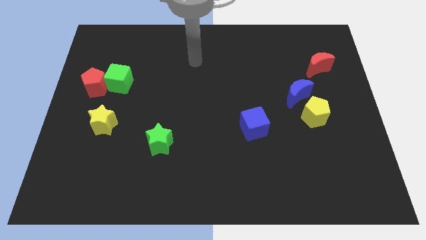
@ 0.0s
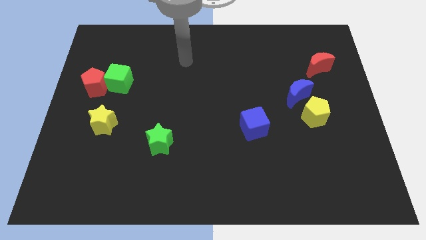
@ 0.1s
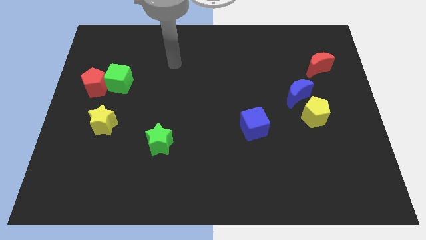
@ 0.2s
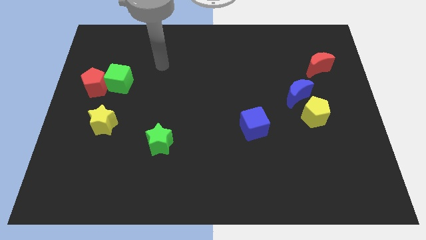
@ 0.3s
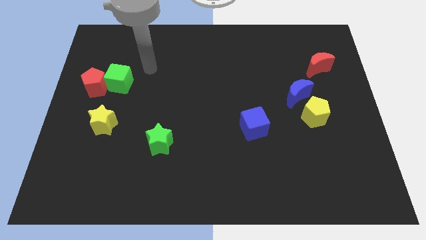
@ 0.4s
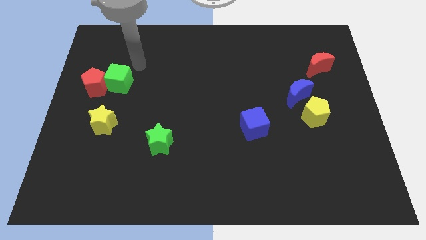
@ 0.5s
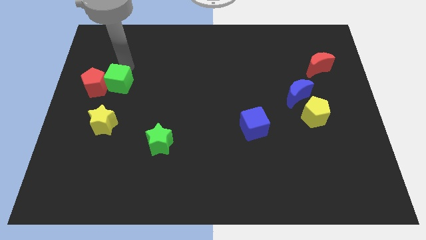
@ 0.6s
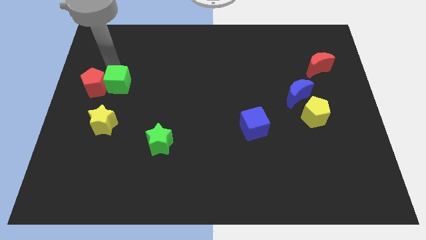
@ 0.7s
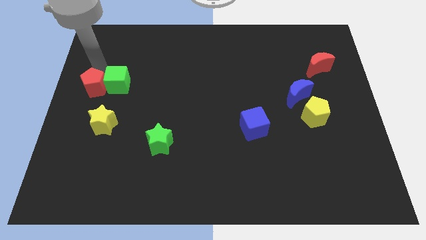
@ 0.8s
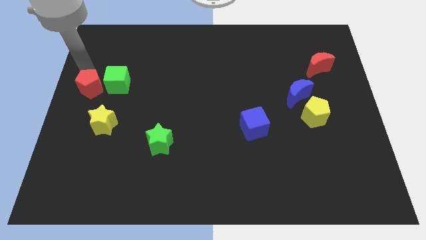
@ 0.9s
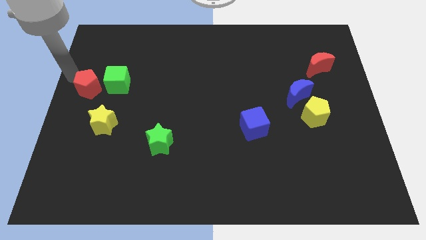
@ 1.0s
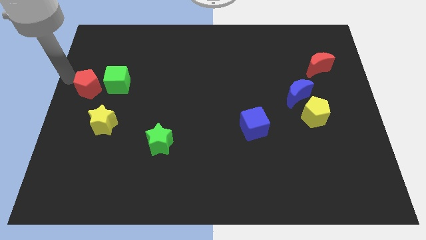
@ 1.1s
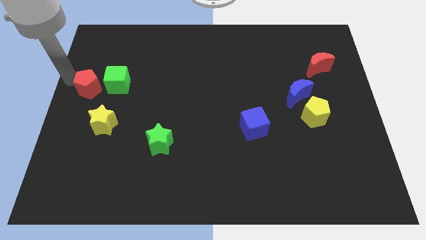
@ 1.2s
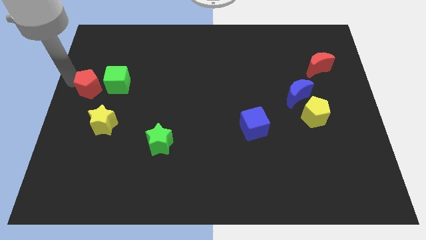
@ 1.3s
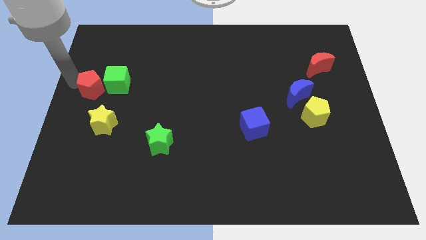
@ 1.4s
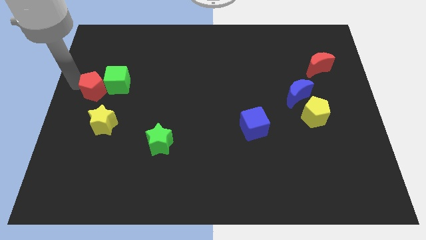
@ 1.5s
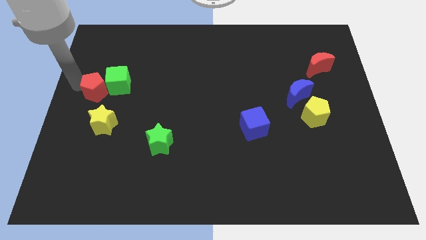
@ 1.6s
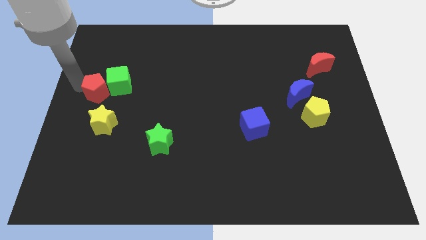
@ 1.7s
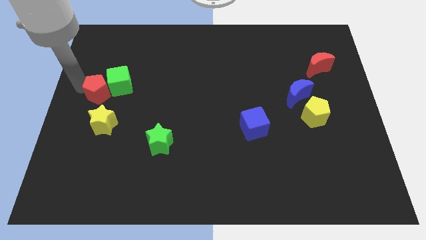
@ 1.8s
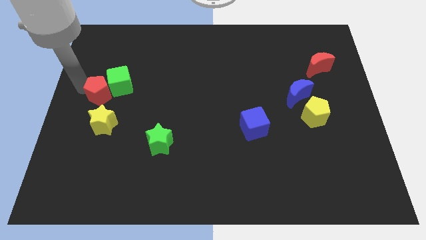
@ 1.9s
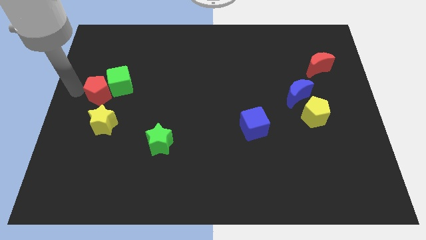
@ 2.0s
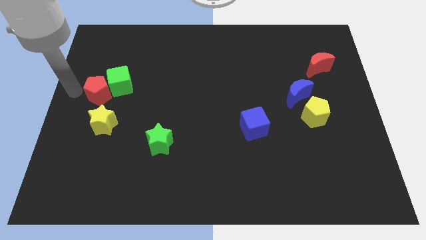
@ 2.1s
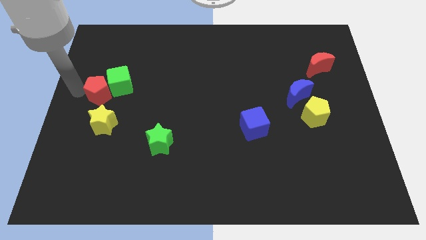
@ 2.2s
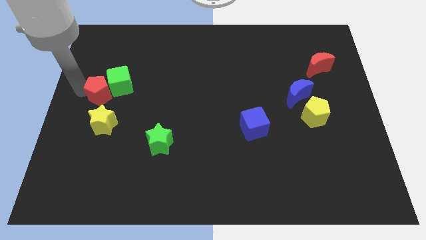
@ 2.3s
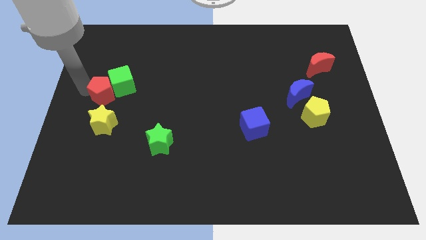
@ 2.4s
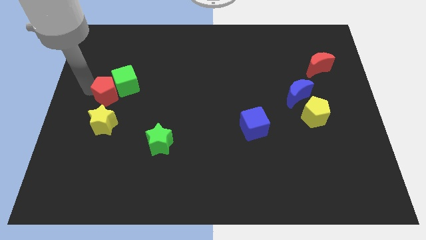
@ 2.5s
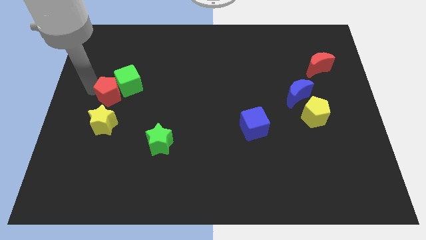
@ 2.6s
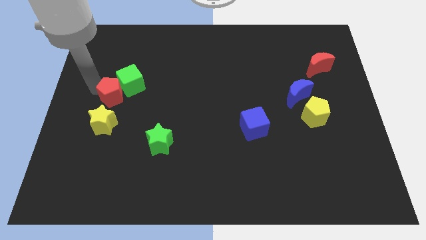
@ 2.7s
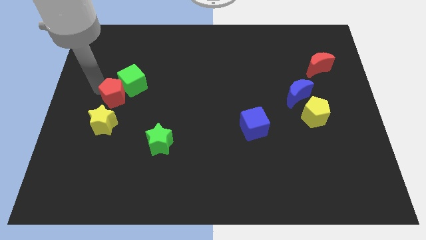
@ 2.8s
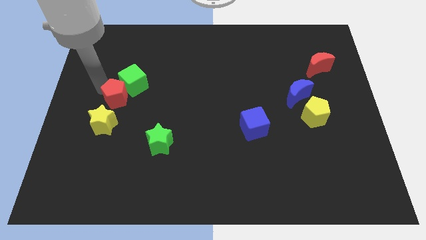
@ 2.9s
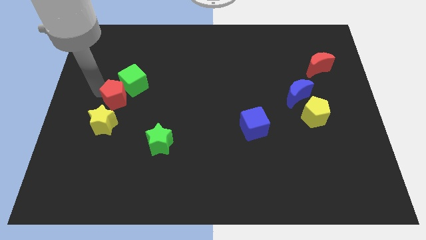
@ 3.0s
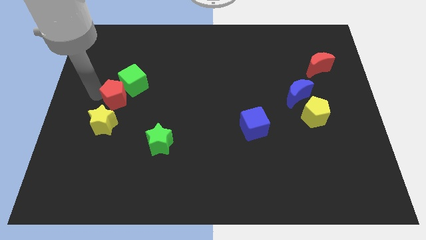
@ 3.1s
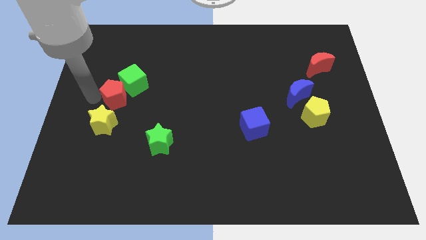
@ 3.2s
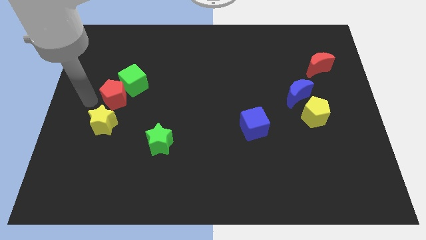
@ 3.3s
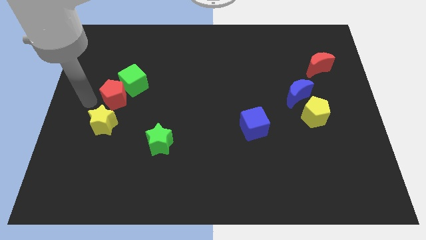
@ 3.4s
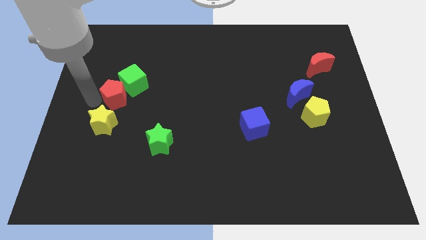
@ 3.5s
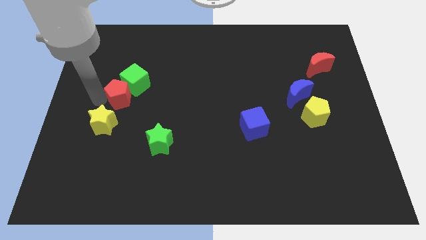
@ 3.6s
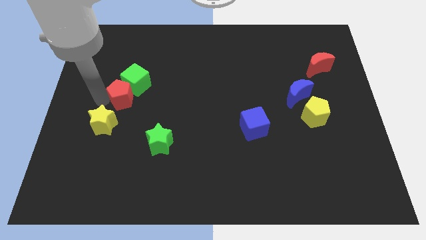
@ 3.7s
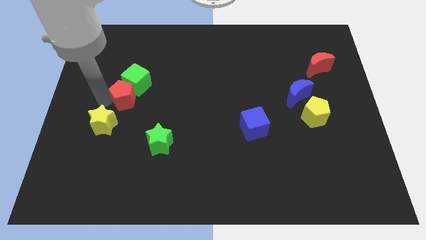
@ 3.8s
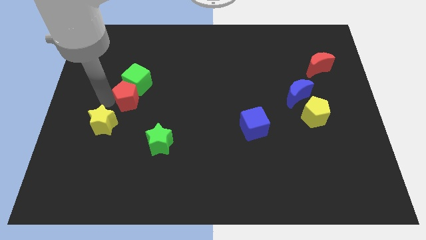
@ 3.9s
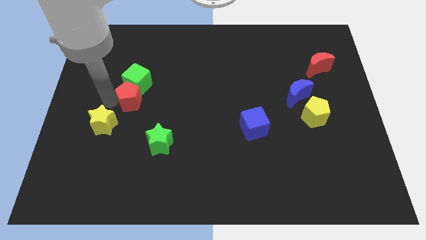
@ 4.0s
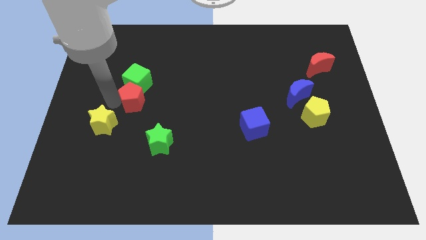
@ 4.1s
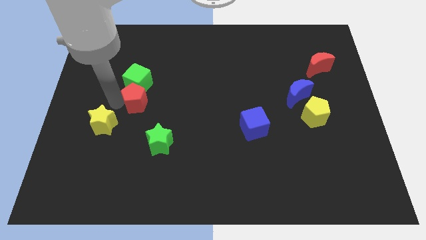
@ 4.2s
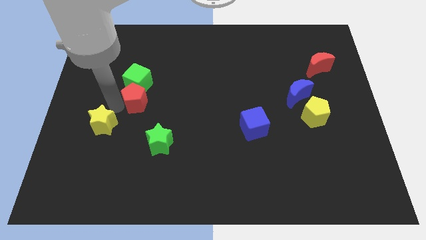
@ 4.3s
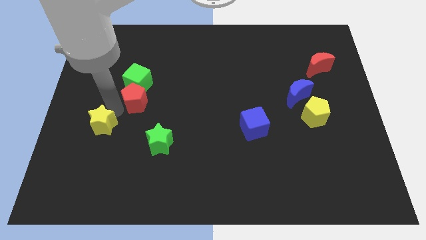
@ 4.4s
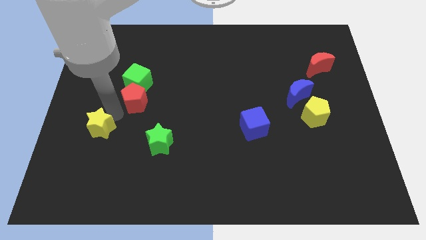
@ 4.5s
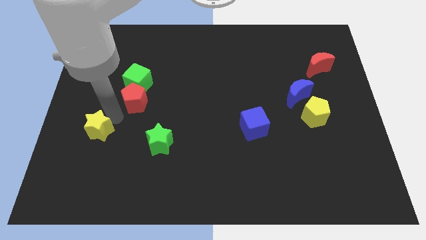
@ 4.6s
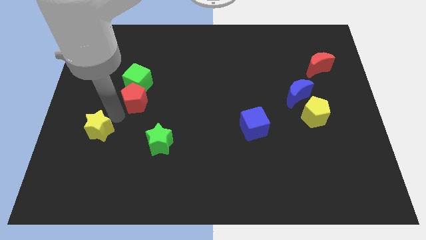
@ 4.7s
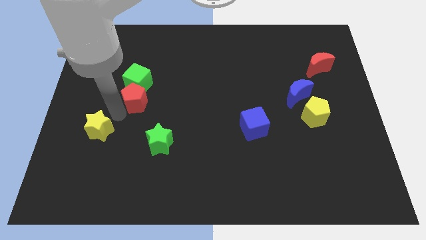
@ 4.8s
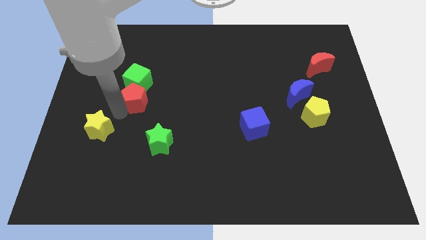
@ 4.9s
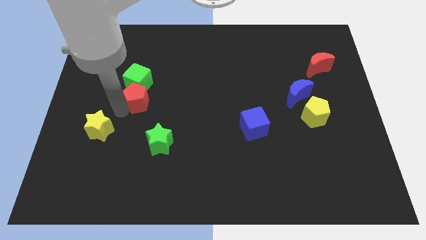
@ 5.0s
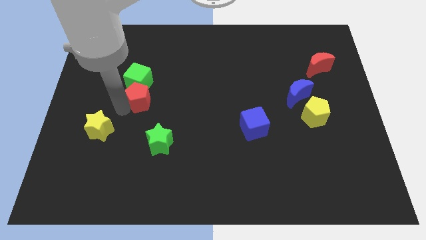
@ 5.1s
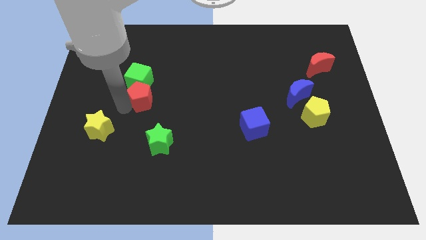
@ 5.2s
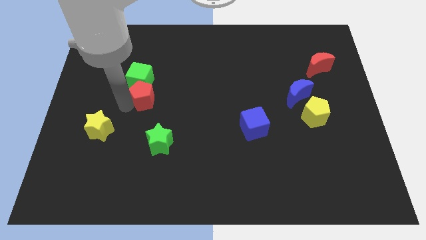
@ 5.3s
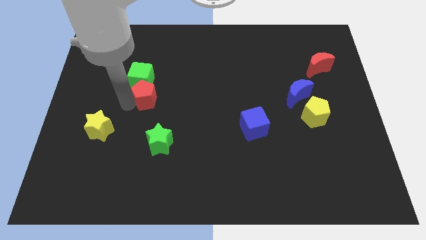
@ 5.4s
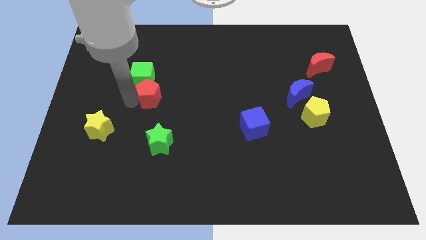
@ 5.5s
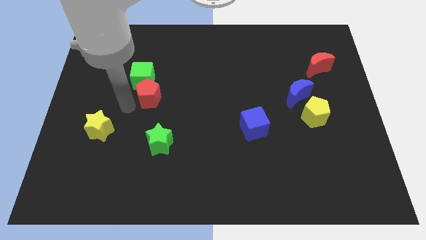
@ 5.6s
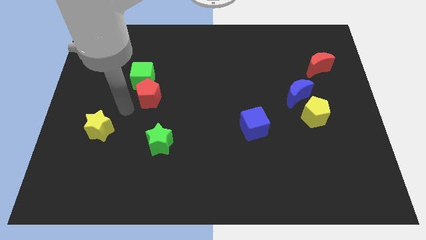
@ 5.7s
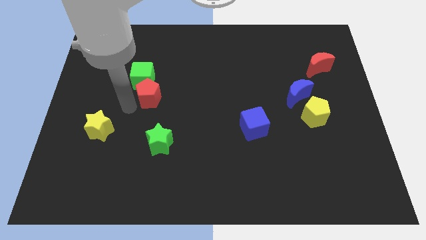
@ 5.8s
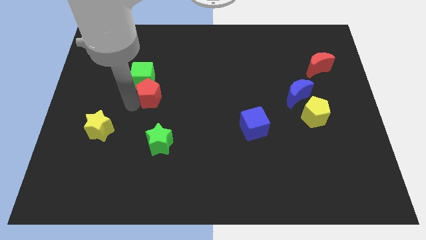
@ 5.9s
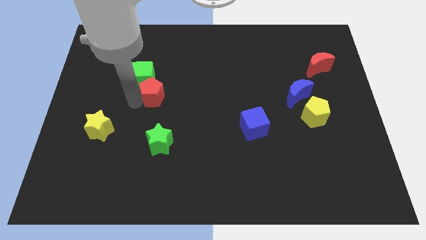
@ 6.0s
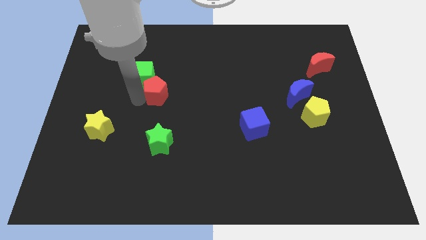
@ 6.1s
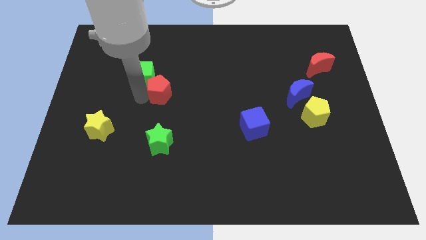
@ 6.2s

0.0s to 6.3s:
slide the red pentagon just right of the green cube

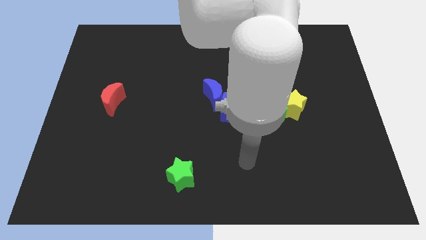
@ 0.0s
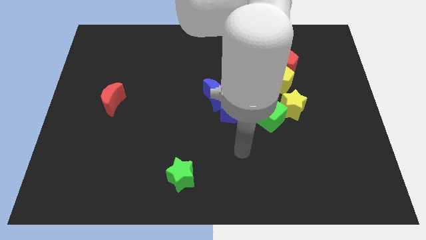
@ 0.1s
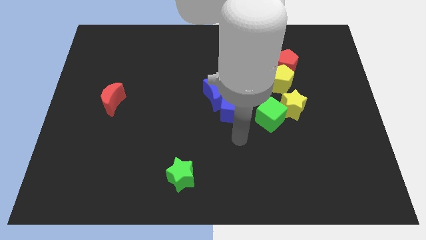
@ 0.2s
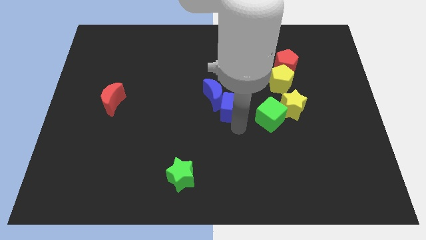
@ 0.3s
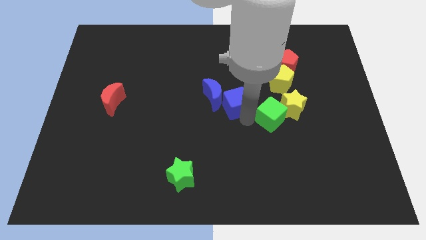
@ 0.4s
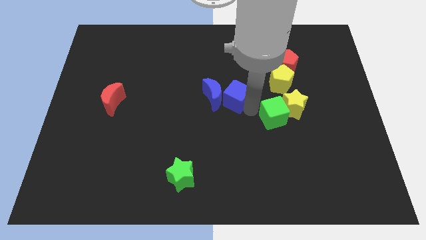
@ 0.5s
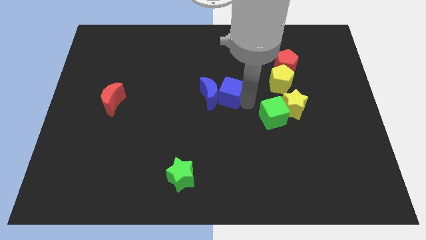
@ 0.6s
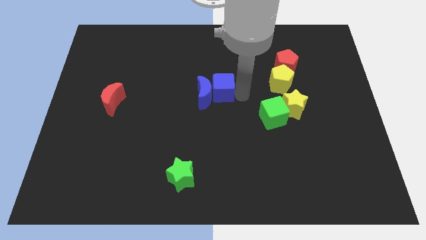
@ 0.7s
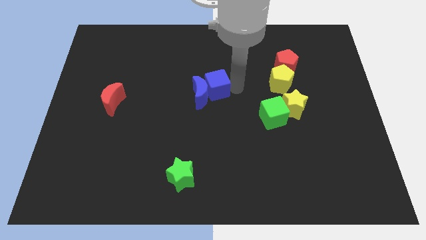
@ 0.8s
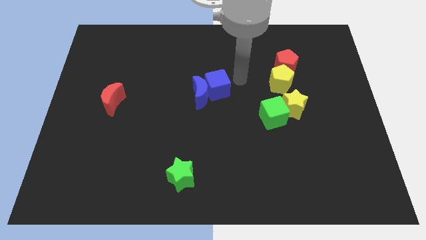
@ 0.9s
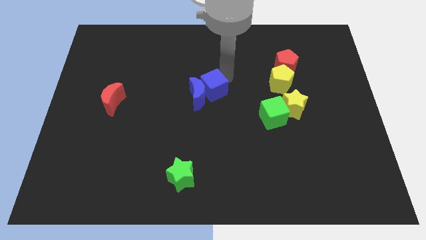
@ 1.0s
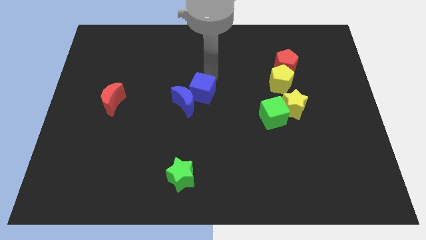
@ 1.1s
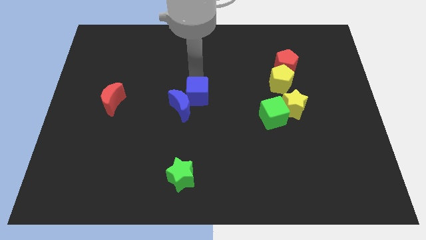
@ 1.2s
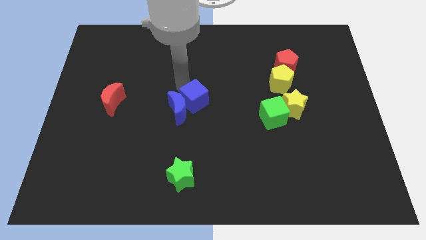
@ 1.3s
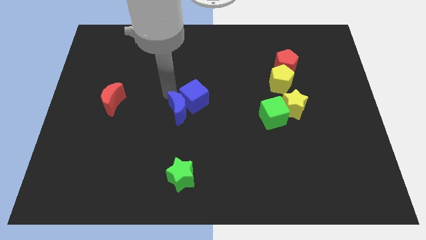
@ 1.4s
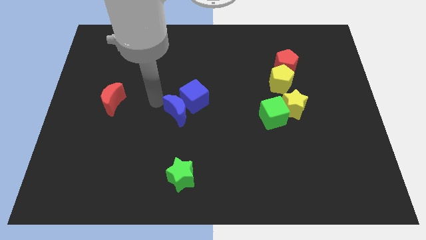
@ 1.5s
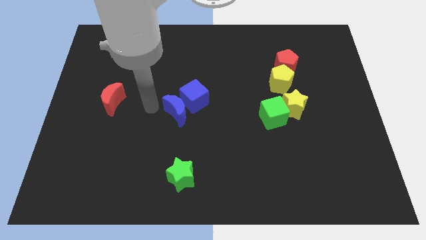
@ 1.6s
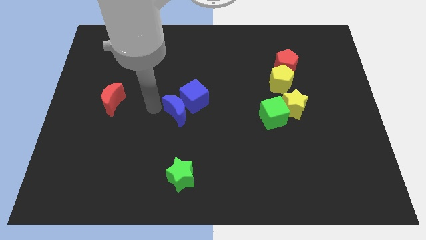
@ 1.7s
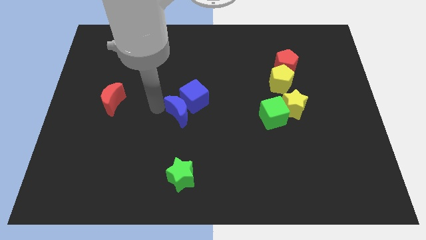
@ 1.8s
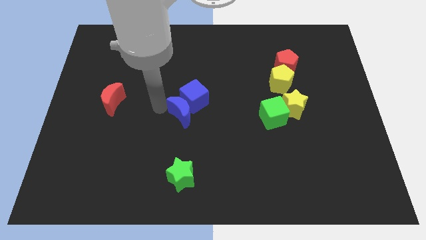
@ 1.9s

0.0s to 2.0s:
move the blue moon above the green star
